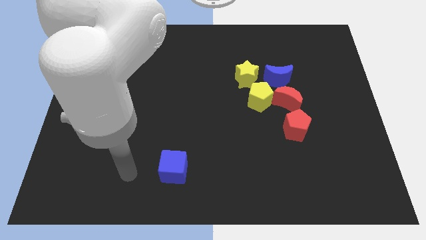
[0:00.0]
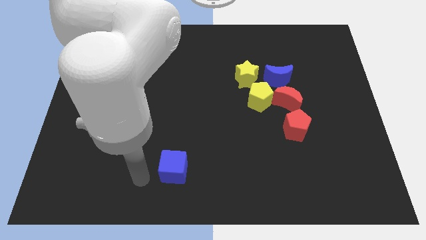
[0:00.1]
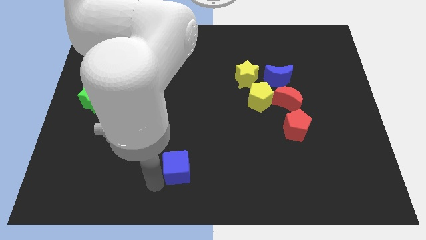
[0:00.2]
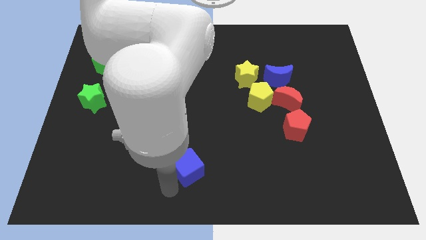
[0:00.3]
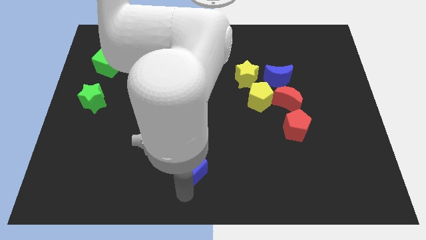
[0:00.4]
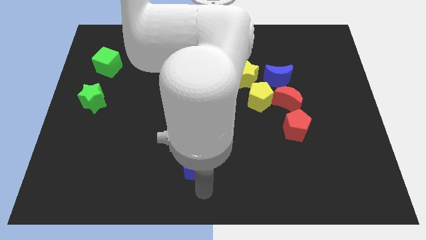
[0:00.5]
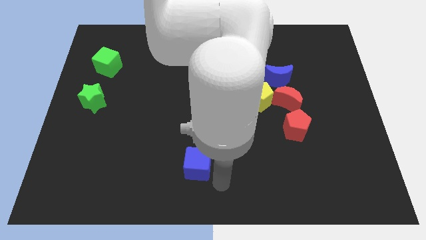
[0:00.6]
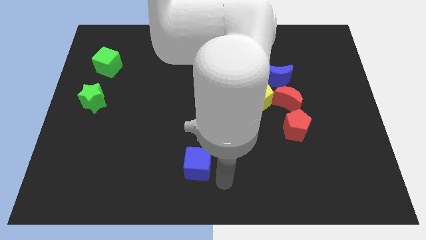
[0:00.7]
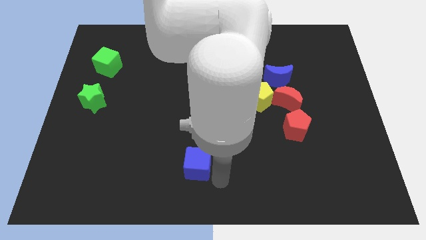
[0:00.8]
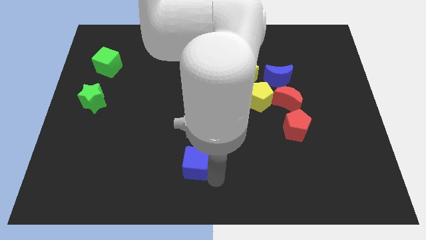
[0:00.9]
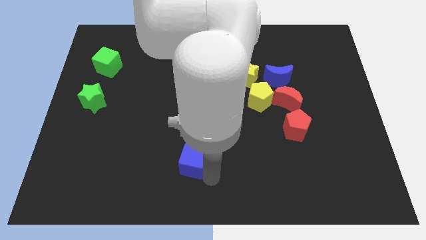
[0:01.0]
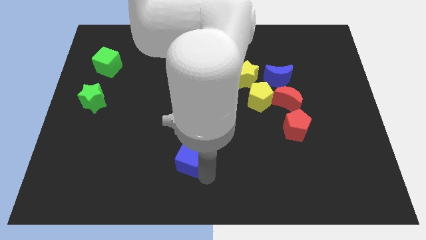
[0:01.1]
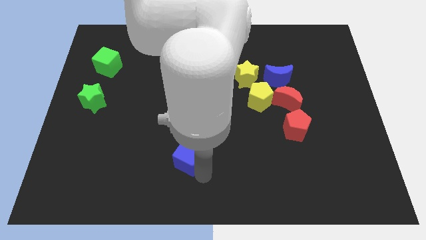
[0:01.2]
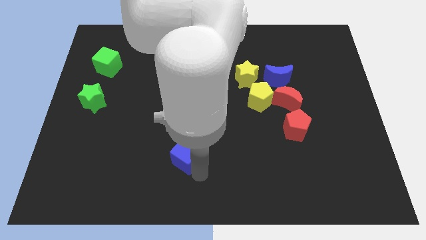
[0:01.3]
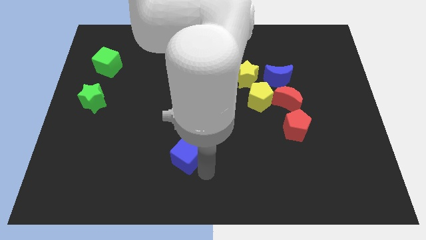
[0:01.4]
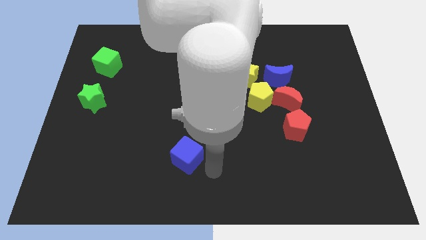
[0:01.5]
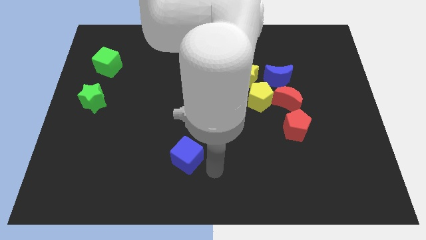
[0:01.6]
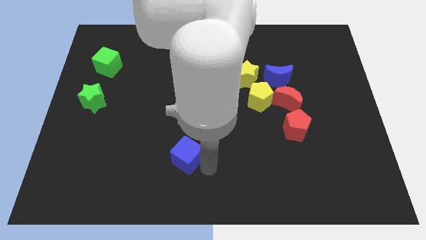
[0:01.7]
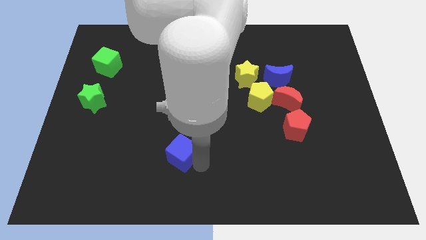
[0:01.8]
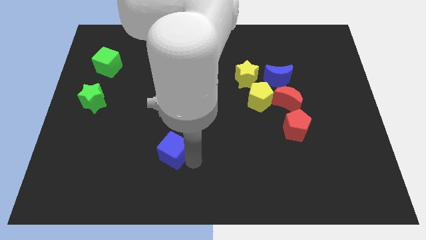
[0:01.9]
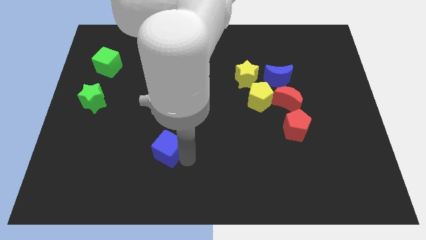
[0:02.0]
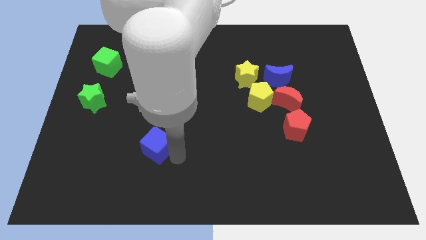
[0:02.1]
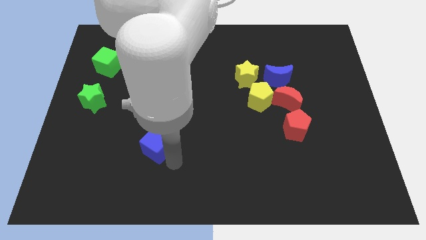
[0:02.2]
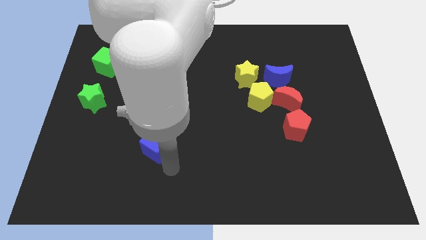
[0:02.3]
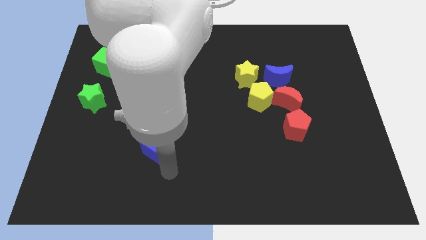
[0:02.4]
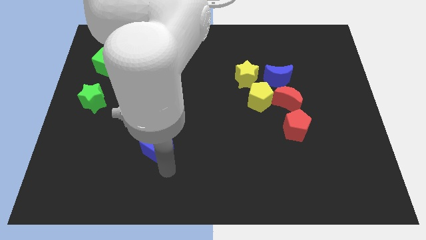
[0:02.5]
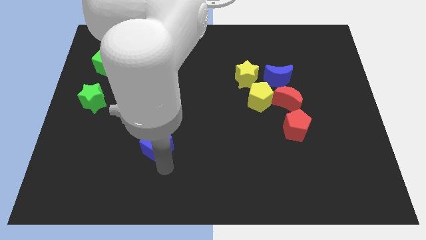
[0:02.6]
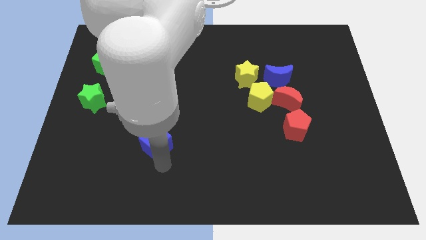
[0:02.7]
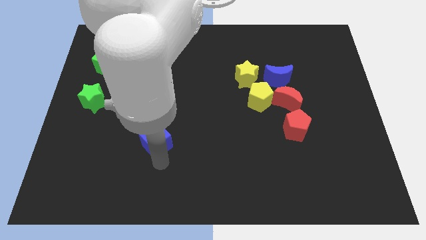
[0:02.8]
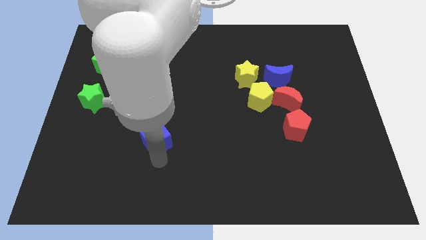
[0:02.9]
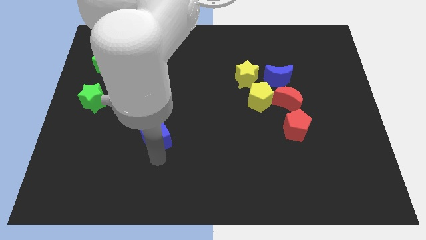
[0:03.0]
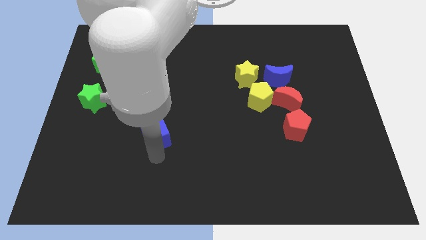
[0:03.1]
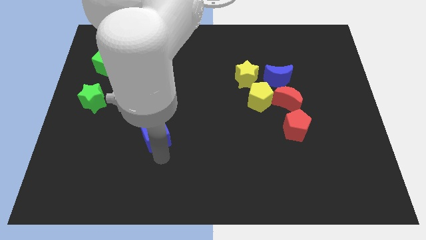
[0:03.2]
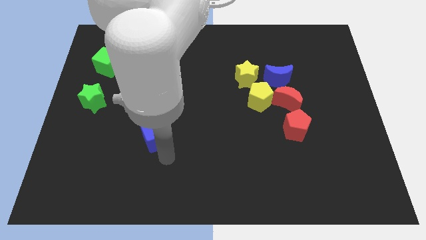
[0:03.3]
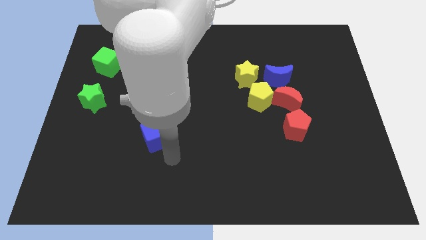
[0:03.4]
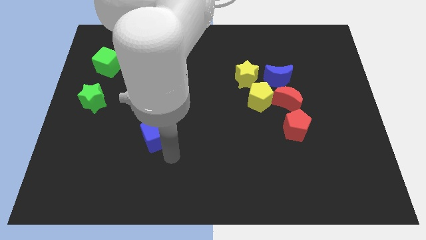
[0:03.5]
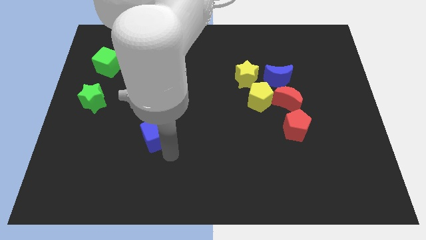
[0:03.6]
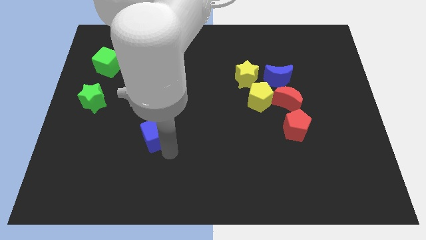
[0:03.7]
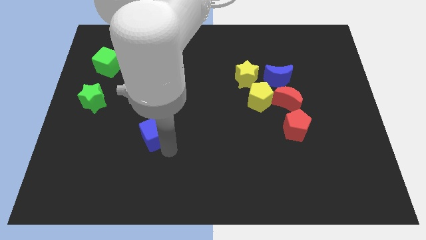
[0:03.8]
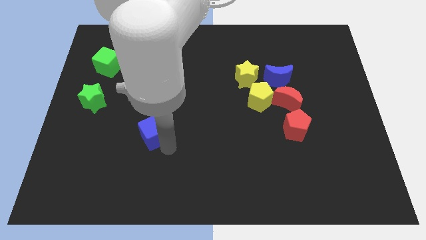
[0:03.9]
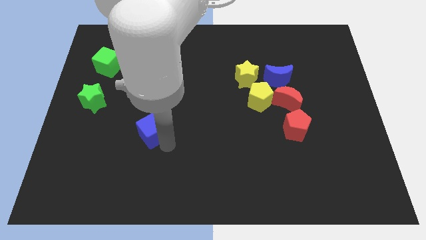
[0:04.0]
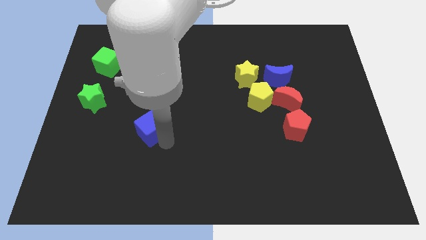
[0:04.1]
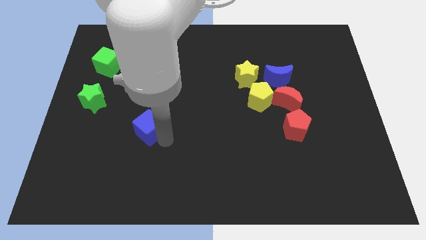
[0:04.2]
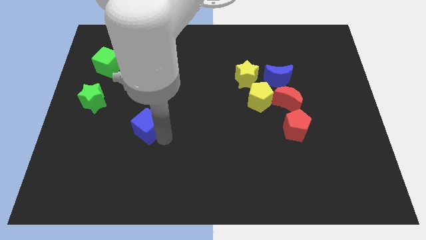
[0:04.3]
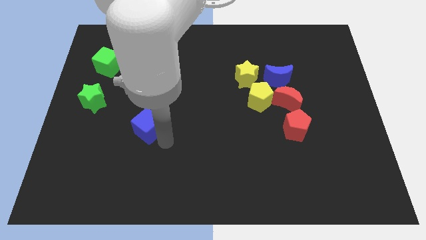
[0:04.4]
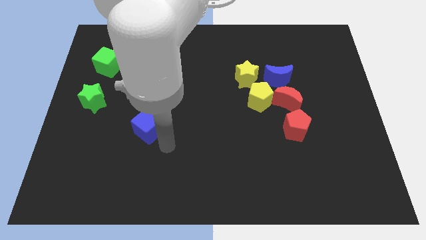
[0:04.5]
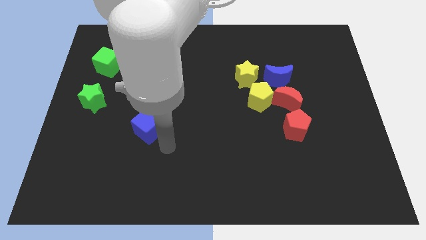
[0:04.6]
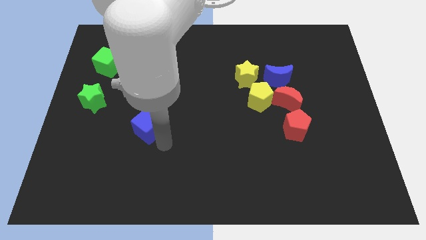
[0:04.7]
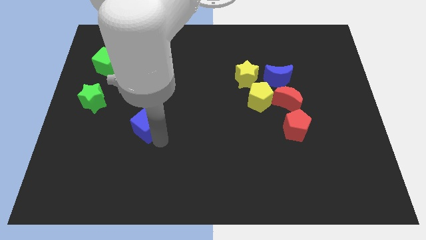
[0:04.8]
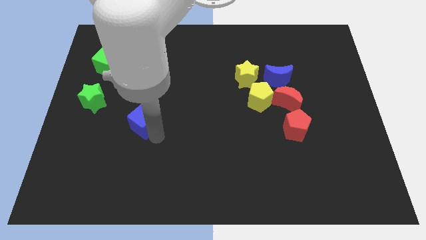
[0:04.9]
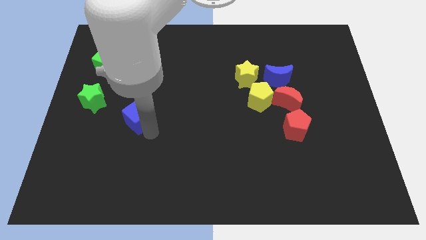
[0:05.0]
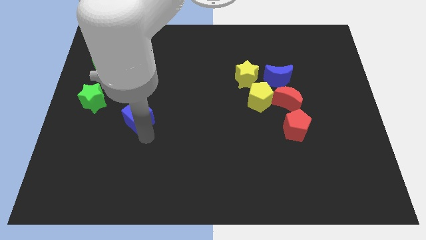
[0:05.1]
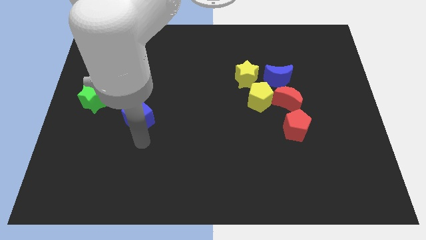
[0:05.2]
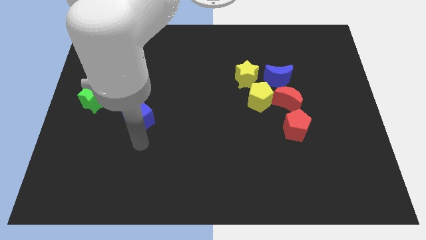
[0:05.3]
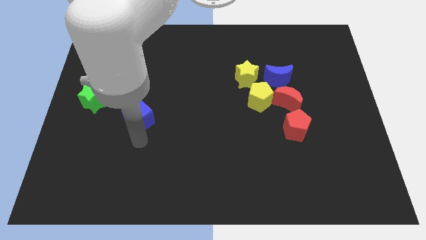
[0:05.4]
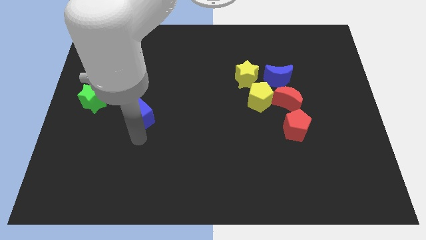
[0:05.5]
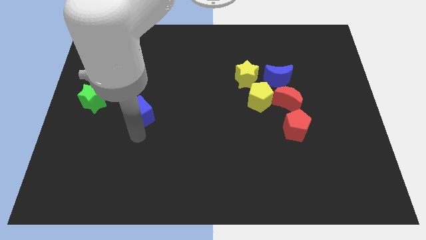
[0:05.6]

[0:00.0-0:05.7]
push the blue cube to the right of the green star

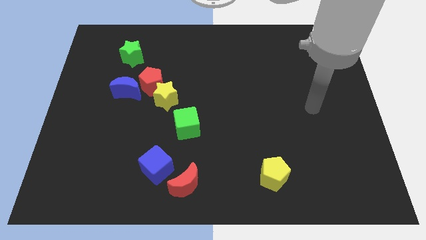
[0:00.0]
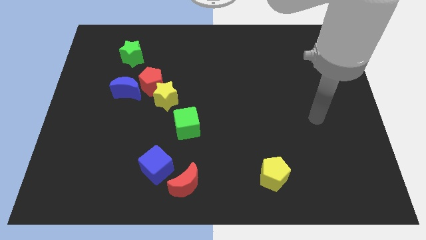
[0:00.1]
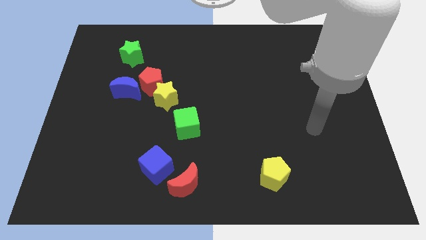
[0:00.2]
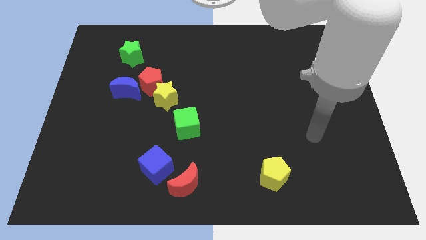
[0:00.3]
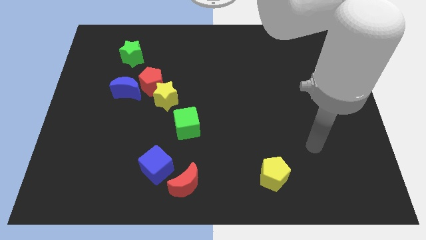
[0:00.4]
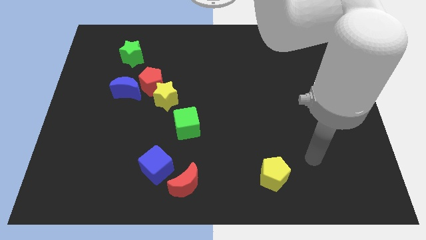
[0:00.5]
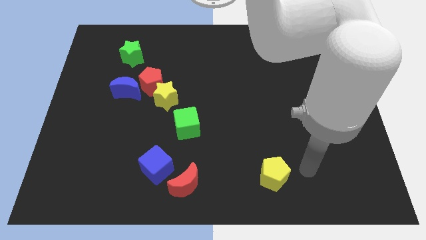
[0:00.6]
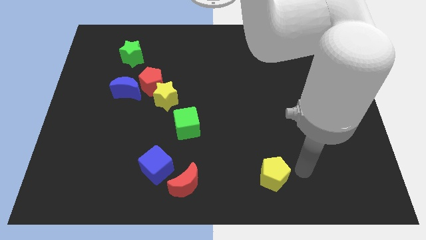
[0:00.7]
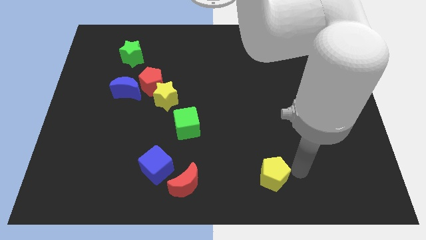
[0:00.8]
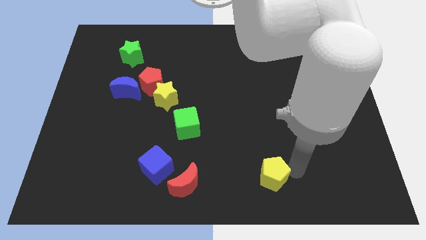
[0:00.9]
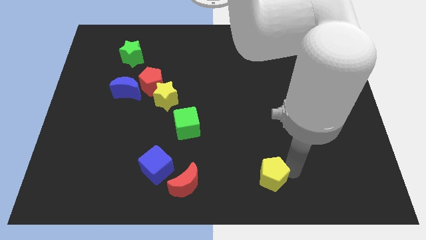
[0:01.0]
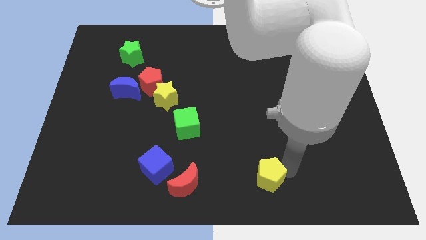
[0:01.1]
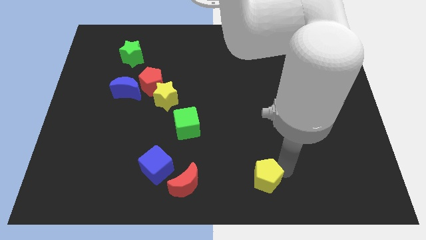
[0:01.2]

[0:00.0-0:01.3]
push the yellow pentagon to the right of the red moon
